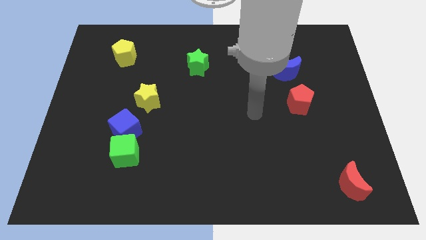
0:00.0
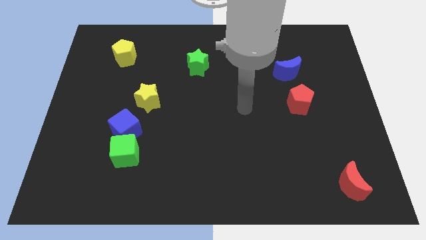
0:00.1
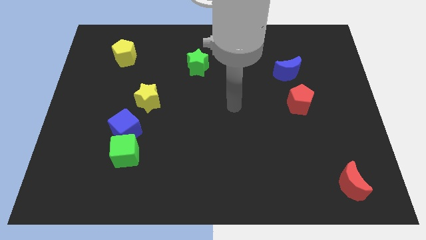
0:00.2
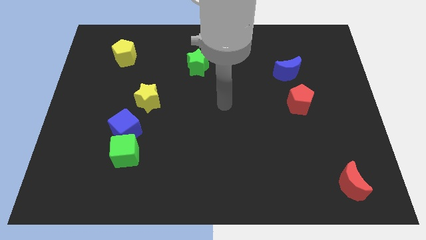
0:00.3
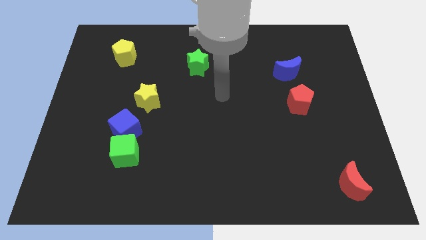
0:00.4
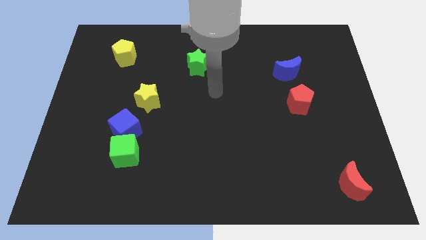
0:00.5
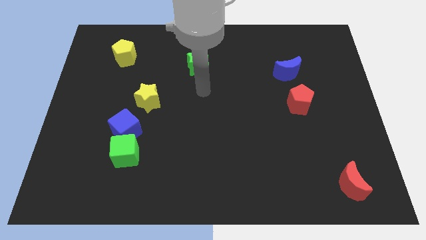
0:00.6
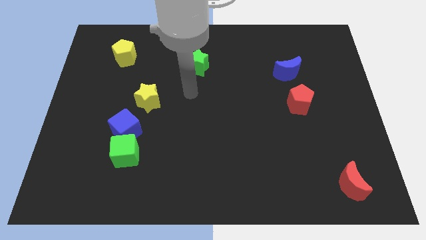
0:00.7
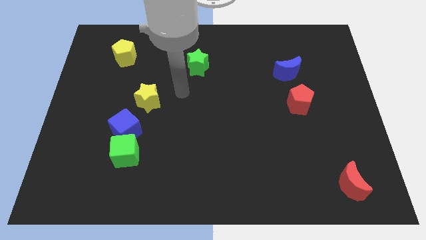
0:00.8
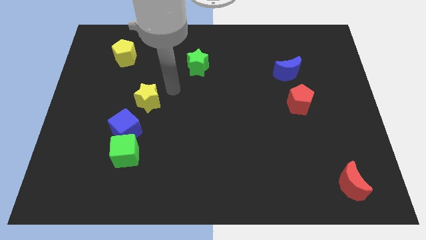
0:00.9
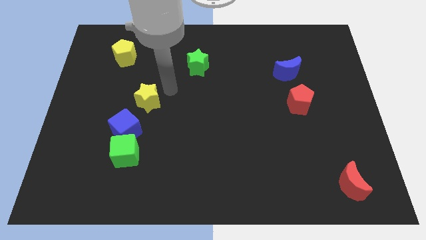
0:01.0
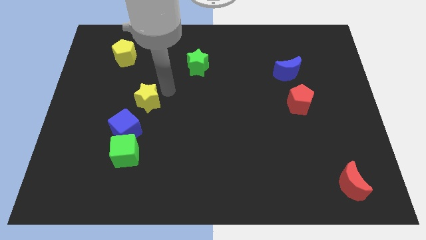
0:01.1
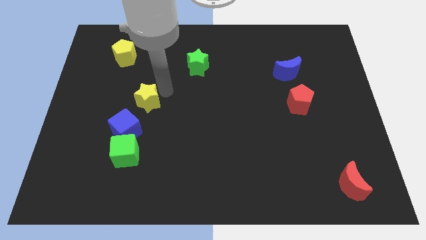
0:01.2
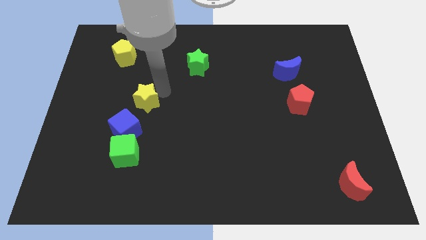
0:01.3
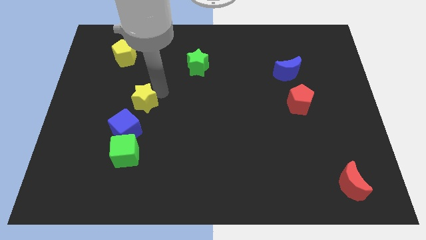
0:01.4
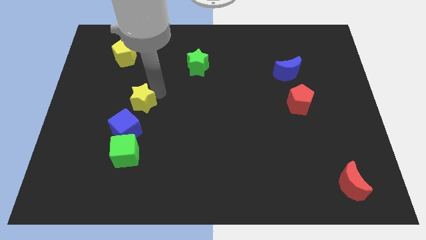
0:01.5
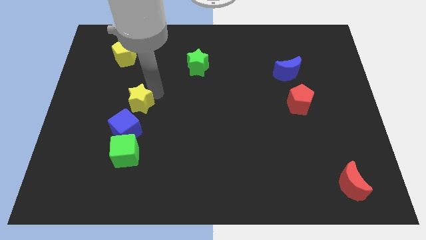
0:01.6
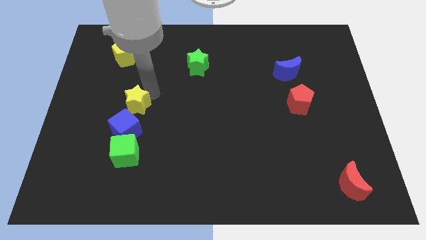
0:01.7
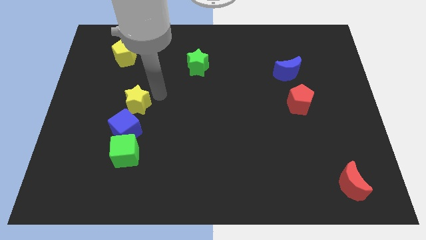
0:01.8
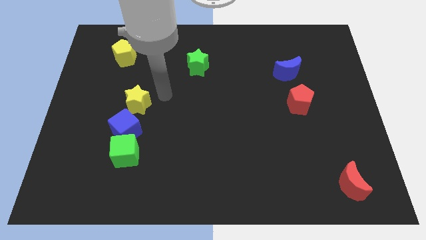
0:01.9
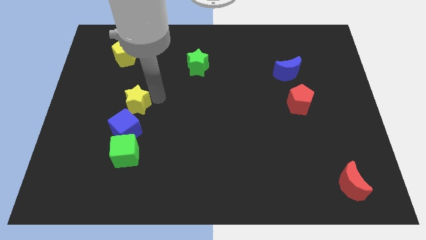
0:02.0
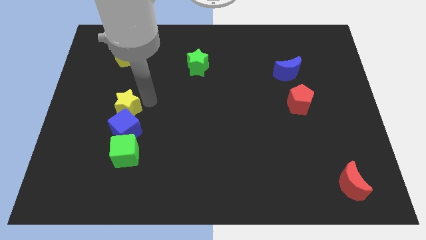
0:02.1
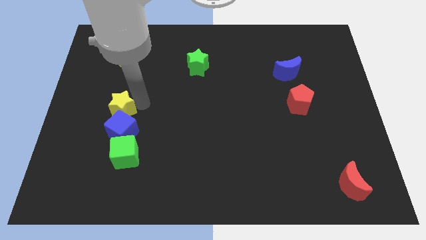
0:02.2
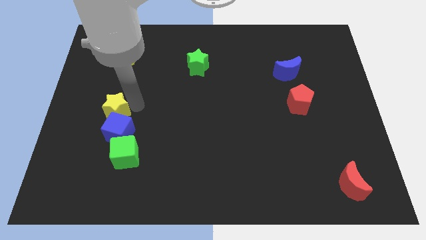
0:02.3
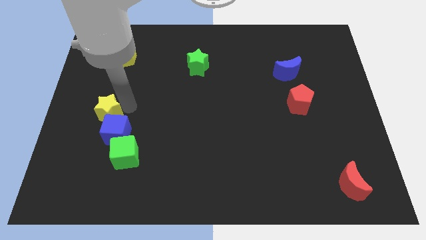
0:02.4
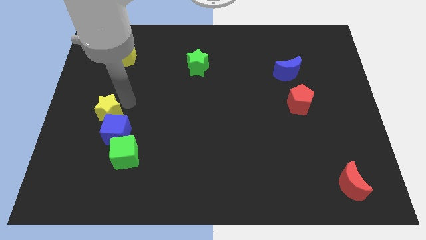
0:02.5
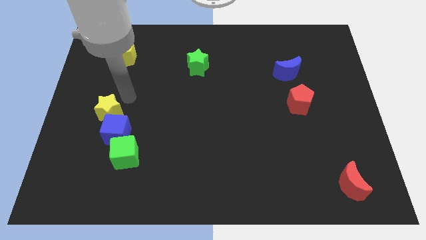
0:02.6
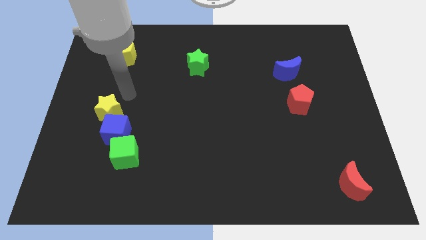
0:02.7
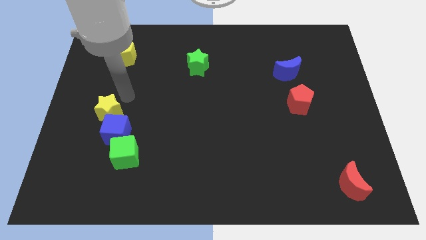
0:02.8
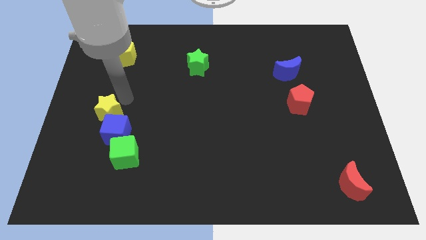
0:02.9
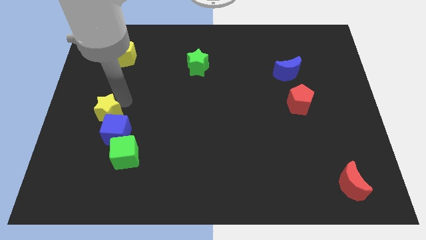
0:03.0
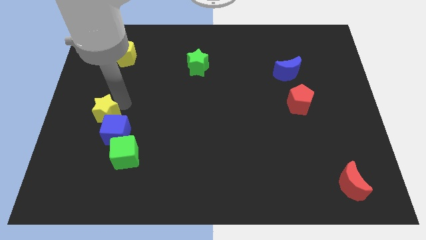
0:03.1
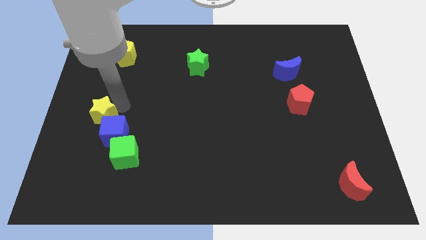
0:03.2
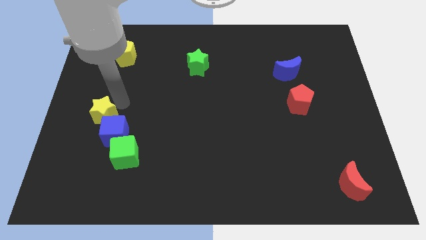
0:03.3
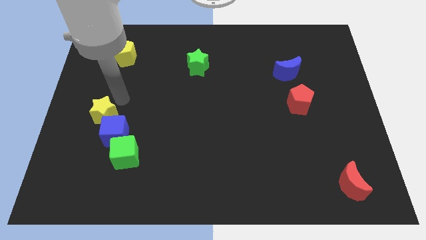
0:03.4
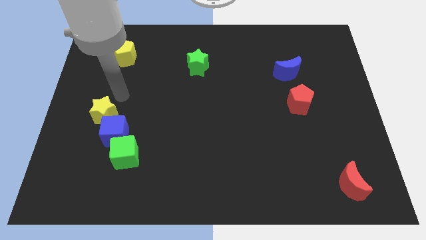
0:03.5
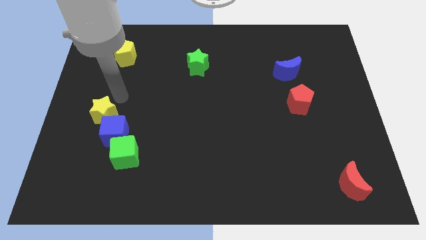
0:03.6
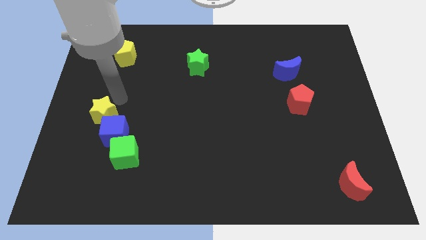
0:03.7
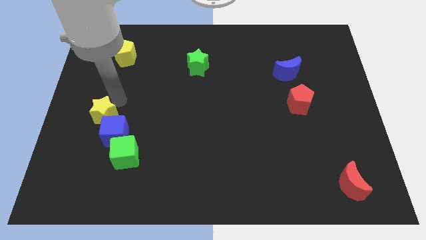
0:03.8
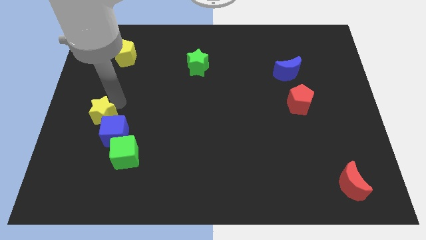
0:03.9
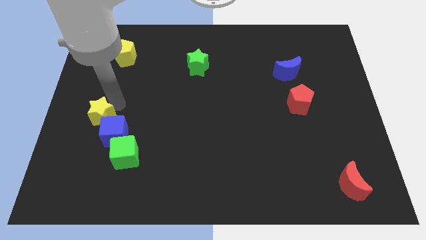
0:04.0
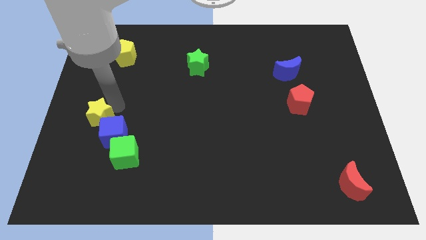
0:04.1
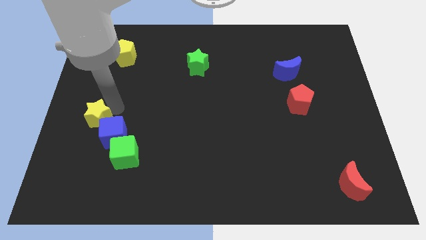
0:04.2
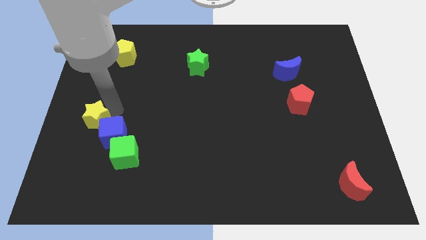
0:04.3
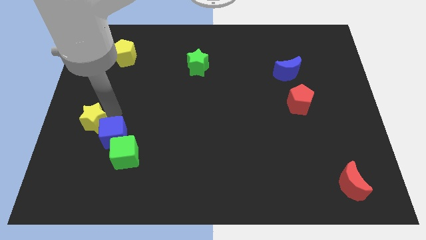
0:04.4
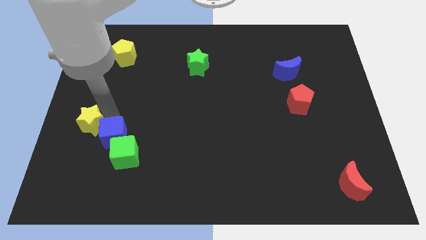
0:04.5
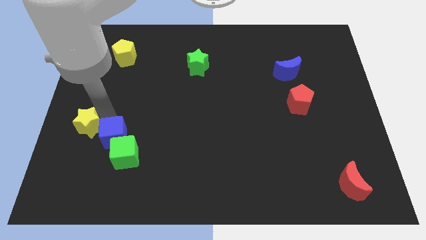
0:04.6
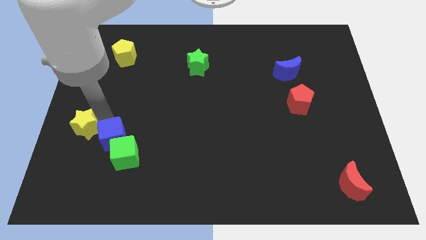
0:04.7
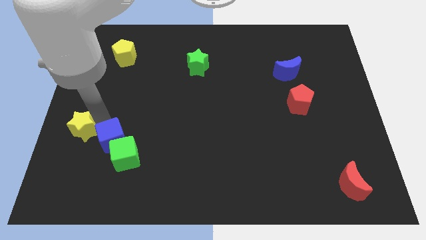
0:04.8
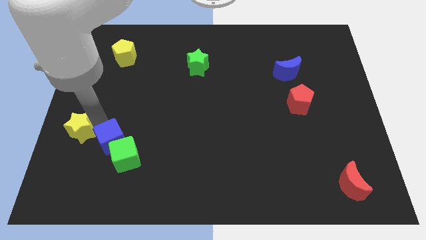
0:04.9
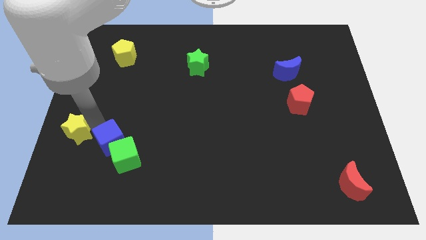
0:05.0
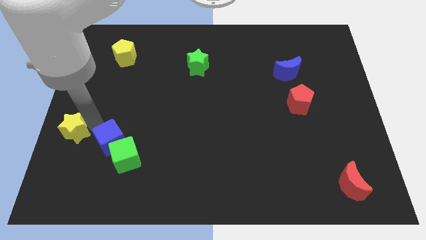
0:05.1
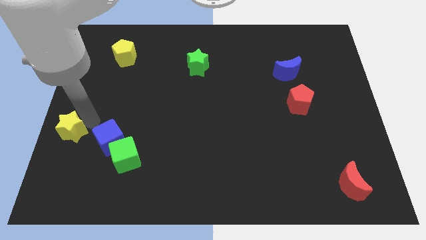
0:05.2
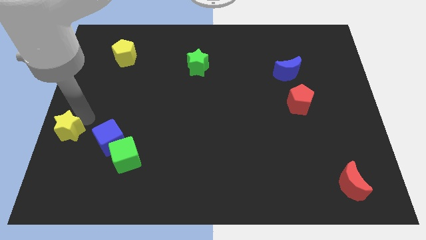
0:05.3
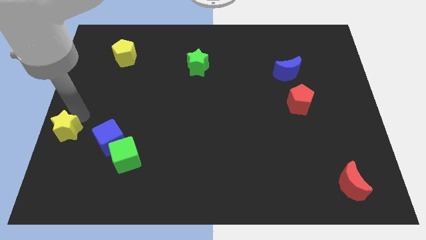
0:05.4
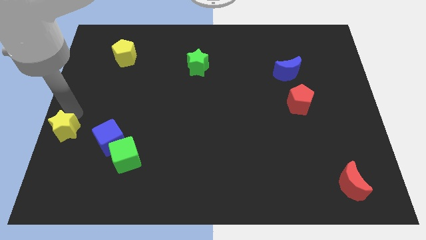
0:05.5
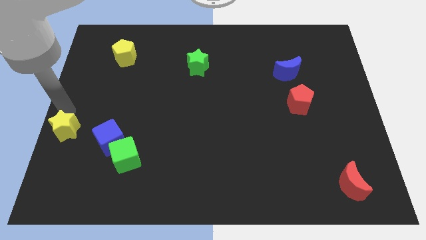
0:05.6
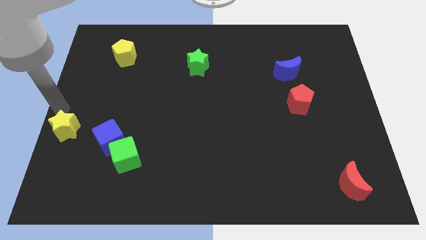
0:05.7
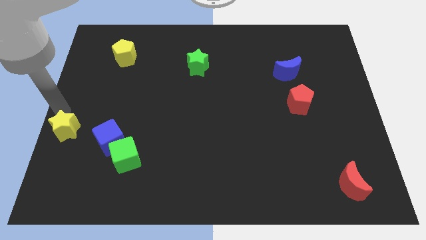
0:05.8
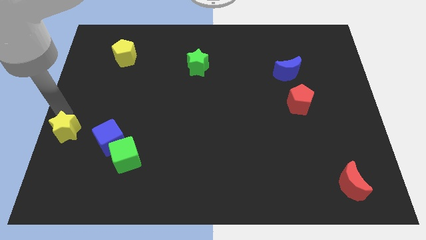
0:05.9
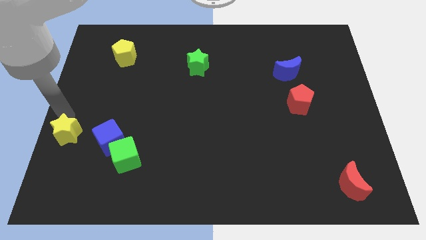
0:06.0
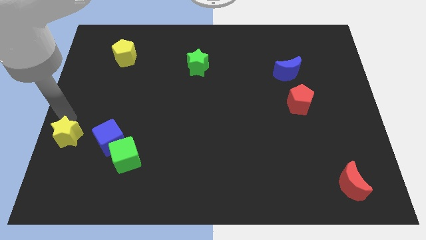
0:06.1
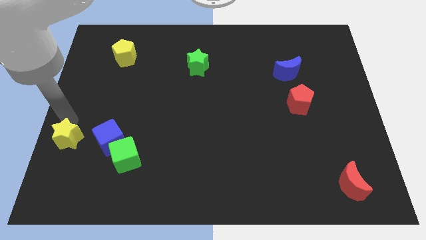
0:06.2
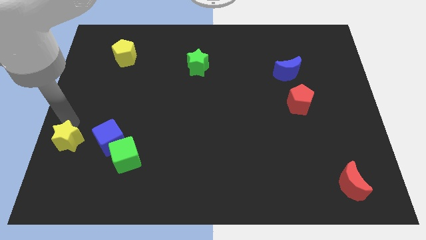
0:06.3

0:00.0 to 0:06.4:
put the yellow star to the left side of the green cube

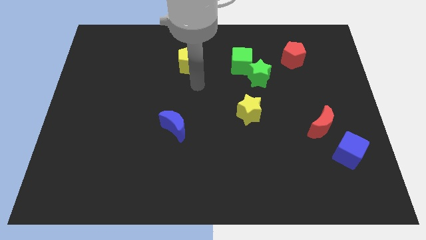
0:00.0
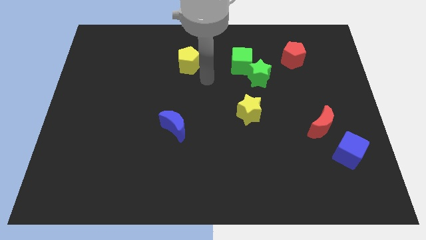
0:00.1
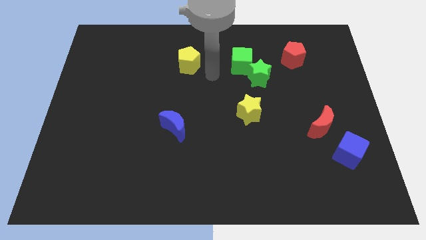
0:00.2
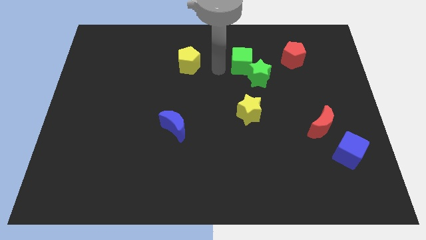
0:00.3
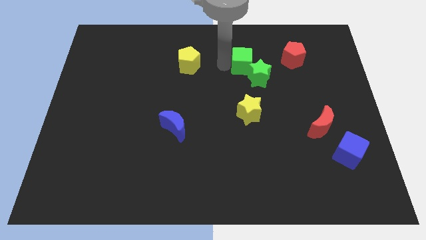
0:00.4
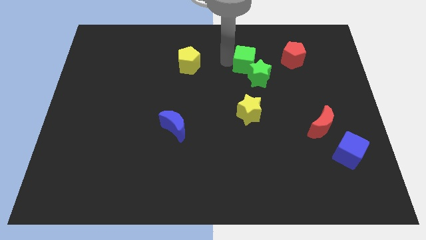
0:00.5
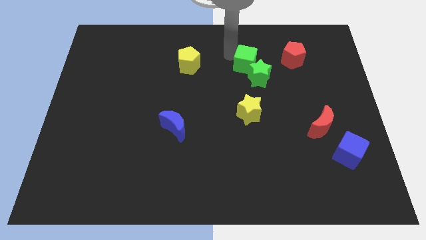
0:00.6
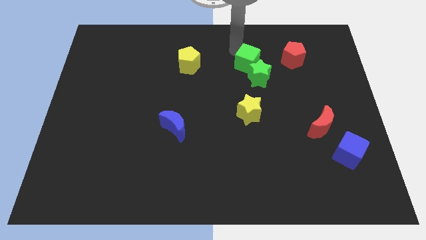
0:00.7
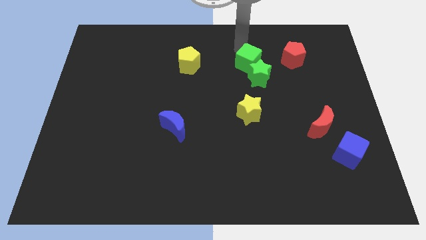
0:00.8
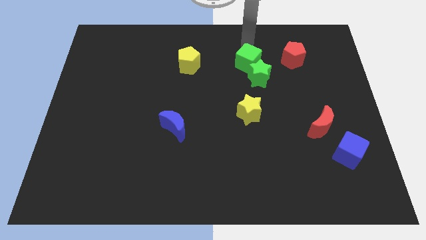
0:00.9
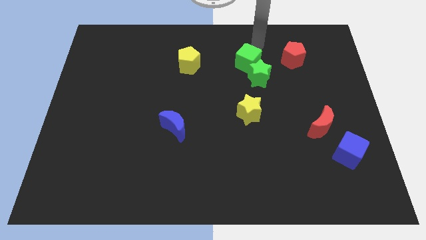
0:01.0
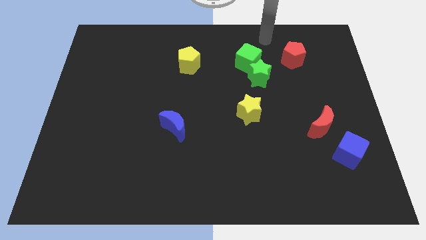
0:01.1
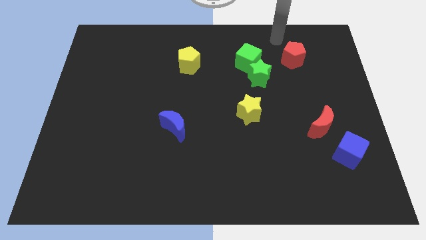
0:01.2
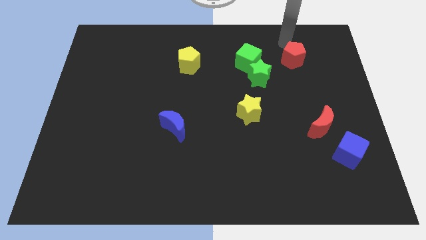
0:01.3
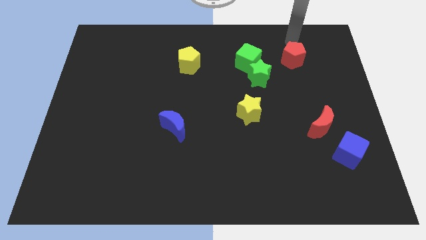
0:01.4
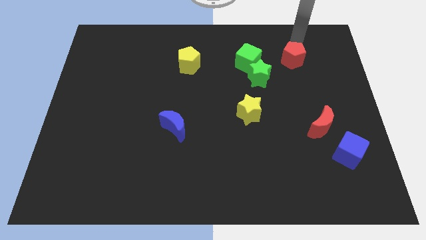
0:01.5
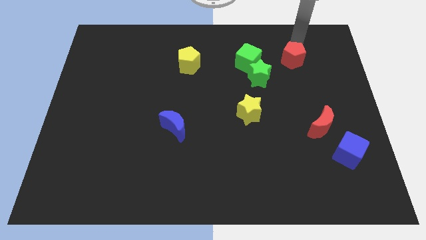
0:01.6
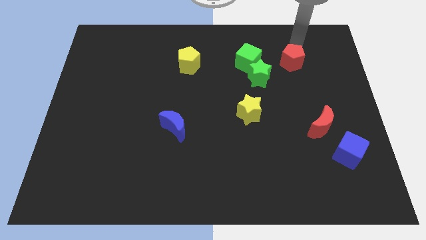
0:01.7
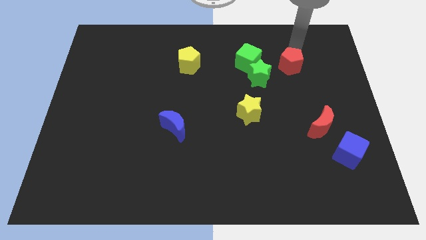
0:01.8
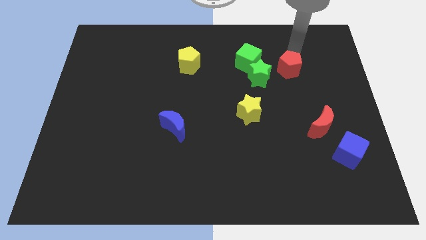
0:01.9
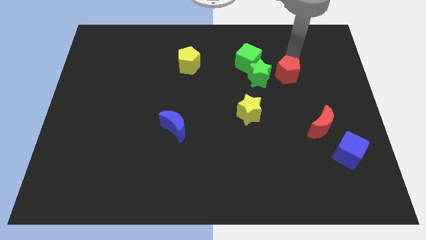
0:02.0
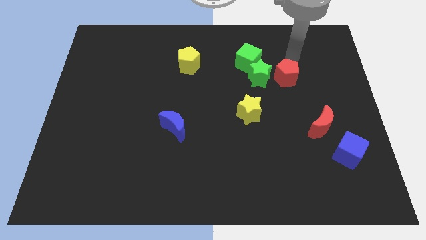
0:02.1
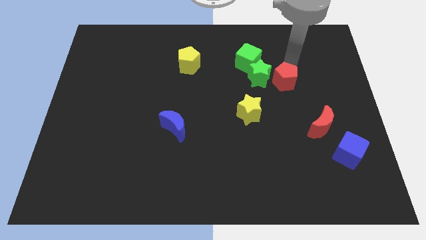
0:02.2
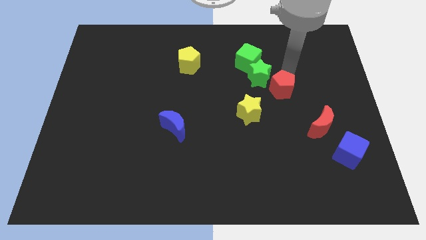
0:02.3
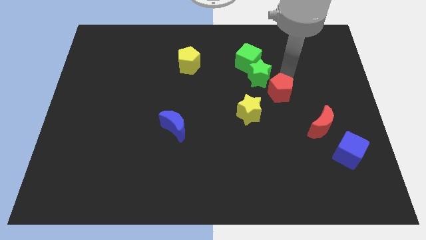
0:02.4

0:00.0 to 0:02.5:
slide the red pentagon to the bottom of the green star
